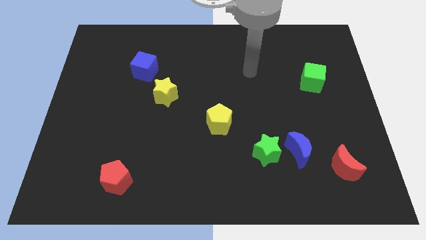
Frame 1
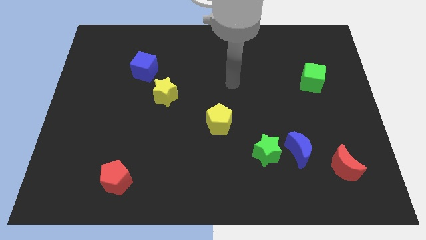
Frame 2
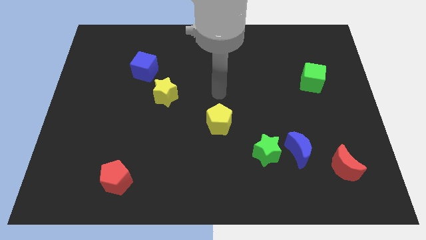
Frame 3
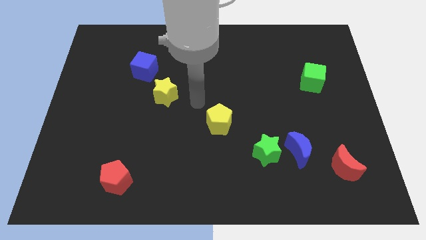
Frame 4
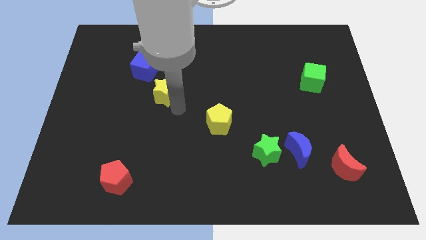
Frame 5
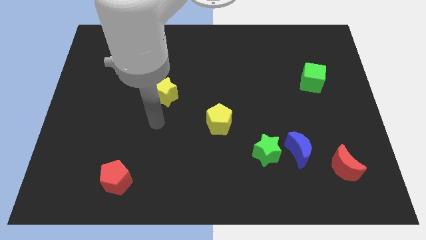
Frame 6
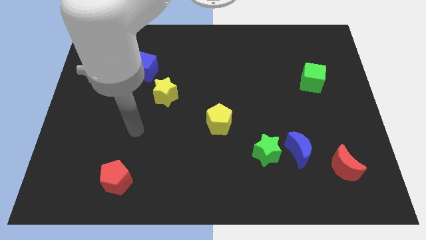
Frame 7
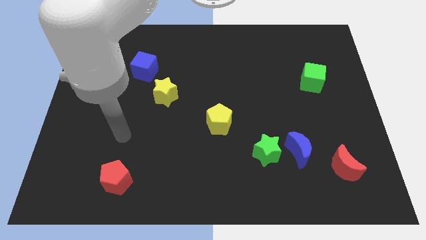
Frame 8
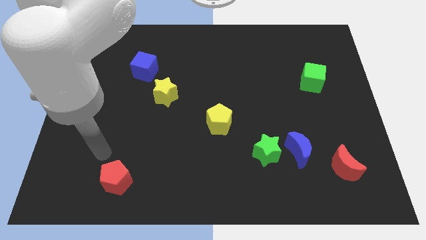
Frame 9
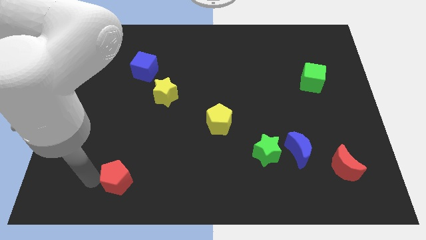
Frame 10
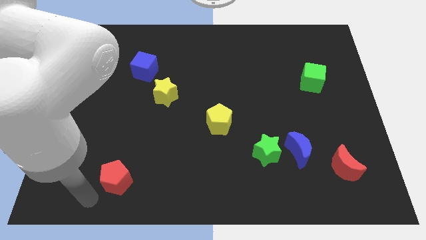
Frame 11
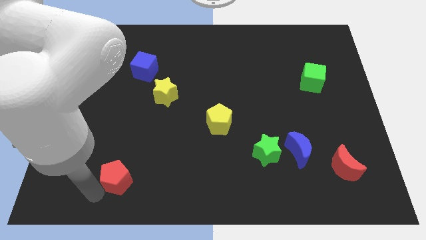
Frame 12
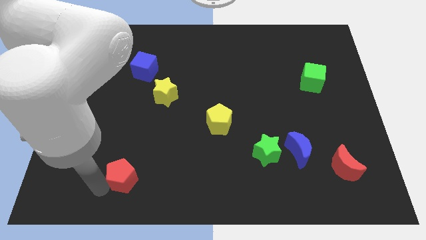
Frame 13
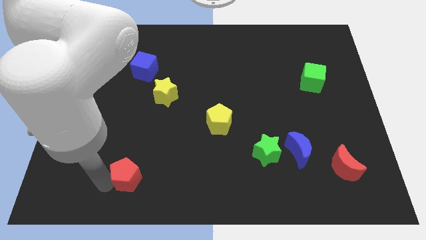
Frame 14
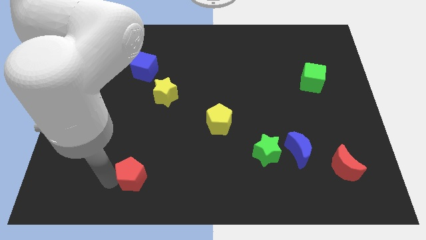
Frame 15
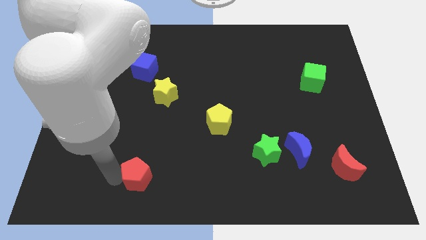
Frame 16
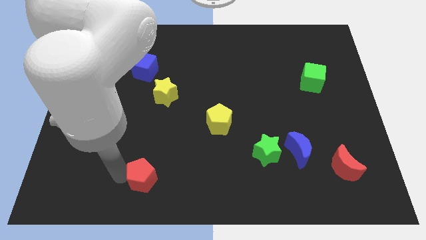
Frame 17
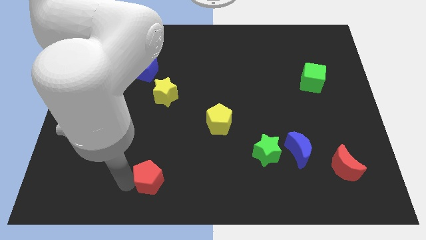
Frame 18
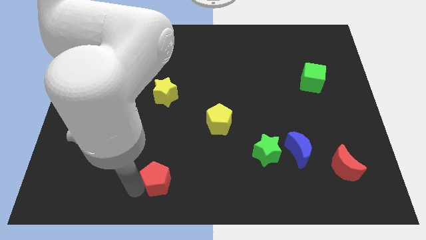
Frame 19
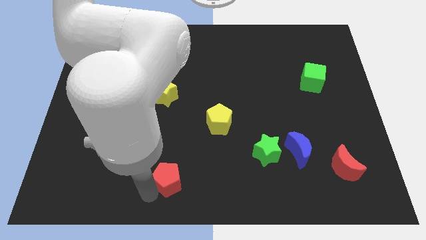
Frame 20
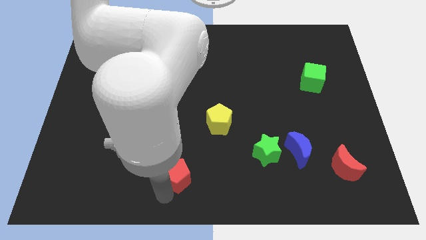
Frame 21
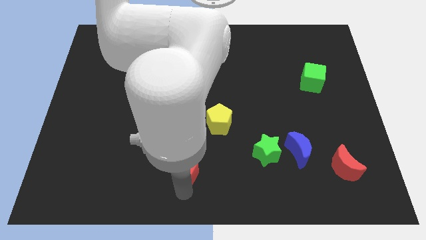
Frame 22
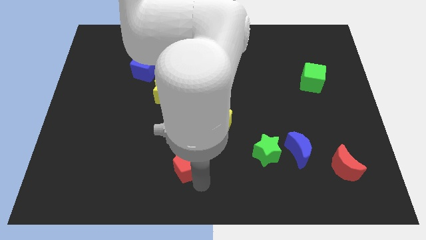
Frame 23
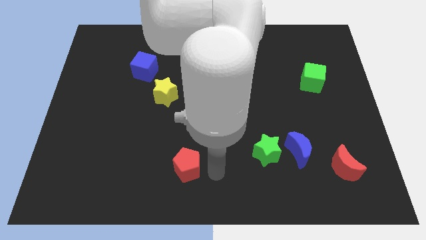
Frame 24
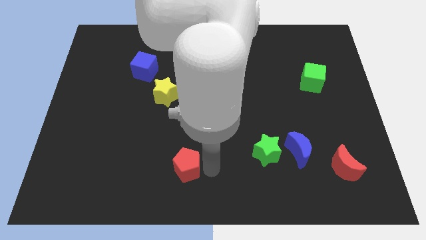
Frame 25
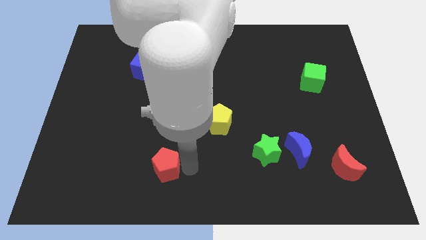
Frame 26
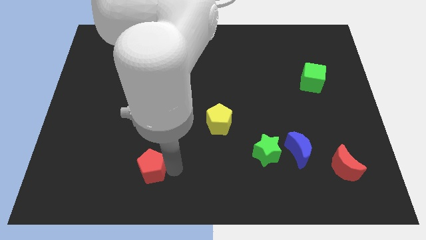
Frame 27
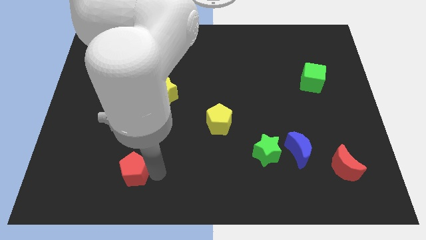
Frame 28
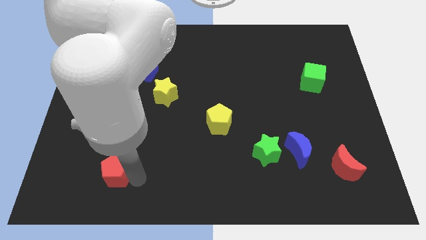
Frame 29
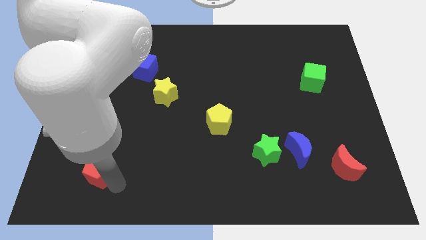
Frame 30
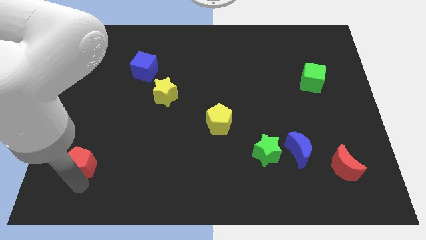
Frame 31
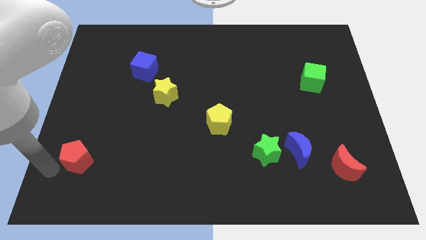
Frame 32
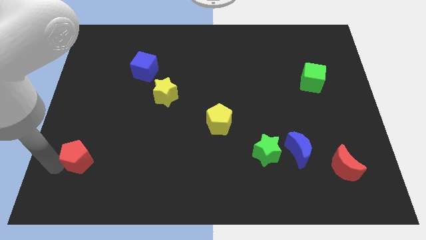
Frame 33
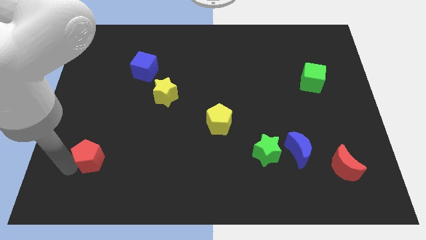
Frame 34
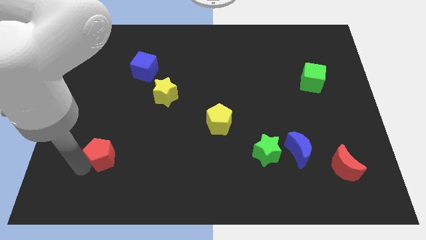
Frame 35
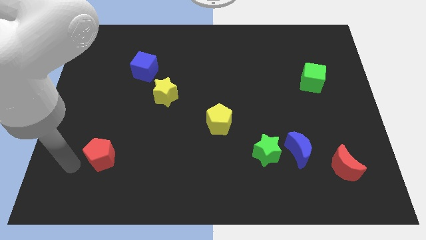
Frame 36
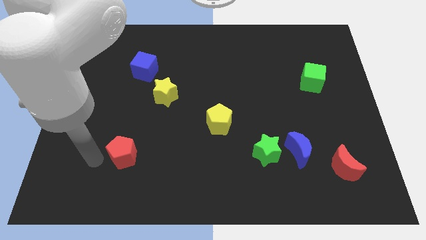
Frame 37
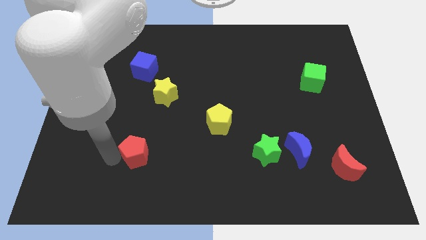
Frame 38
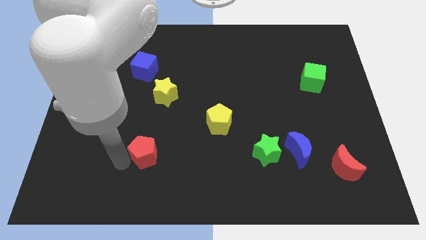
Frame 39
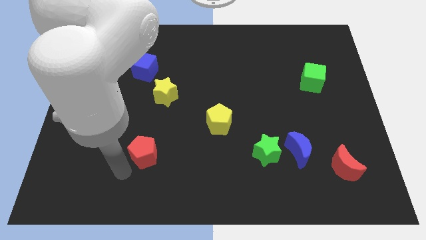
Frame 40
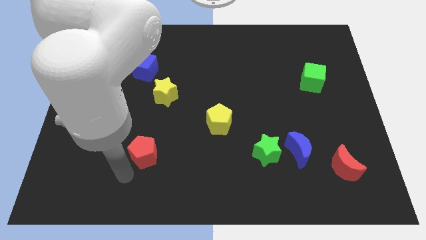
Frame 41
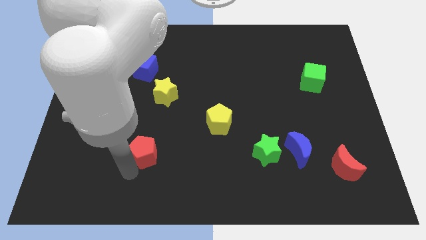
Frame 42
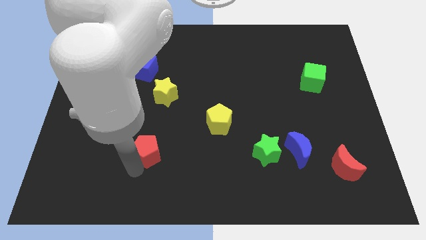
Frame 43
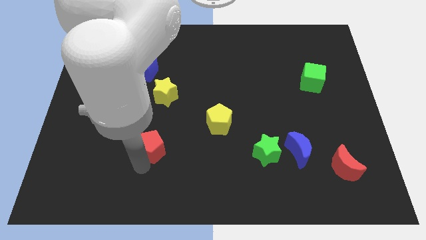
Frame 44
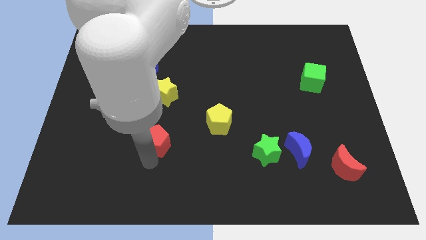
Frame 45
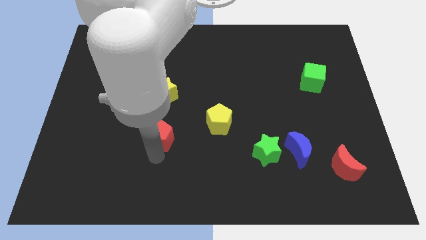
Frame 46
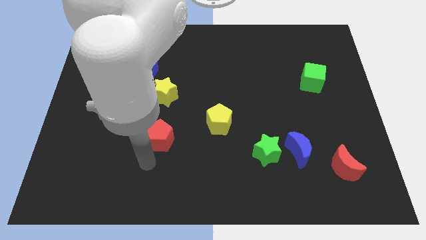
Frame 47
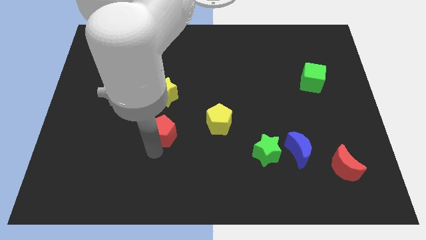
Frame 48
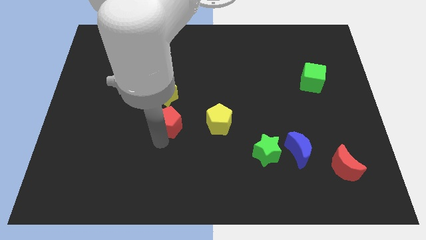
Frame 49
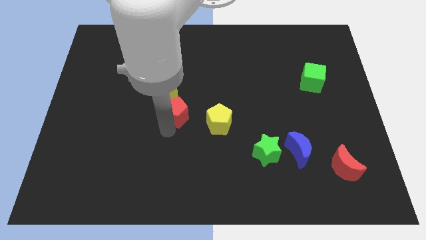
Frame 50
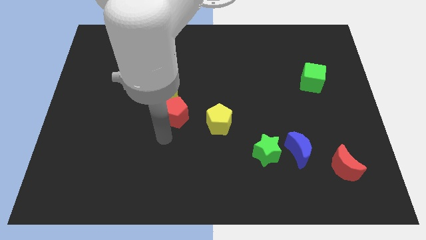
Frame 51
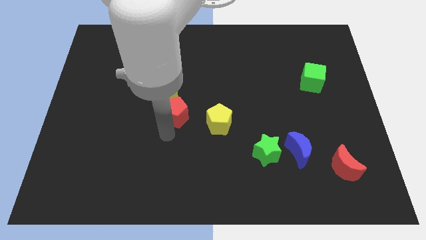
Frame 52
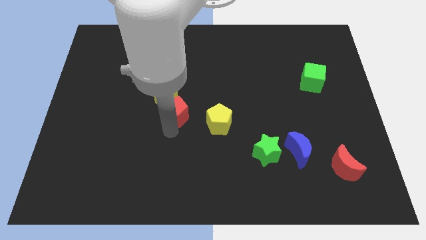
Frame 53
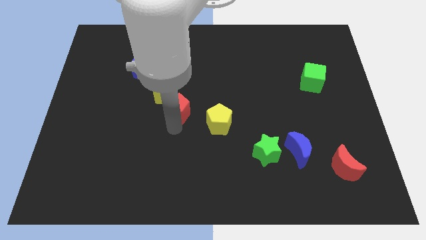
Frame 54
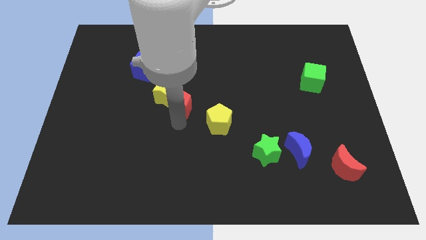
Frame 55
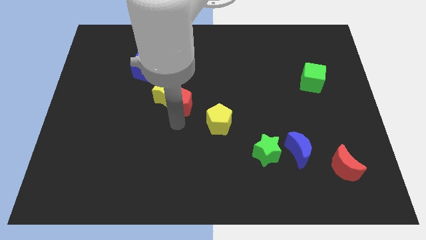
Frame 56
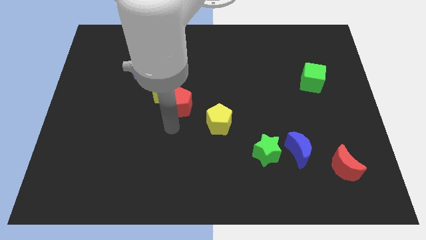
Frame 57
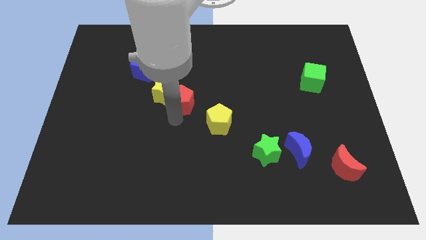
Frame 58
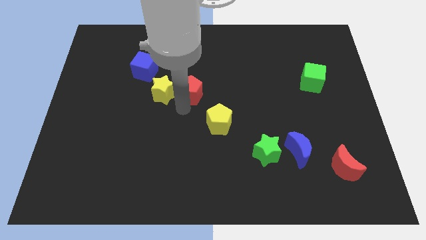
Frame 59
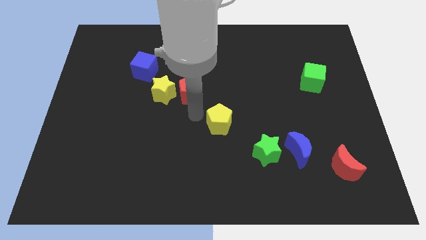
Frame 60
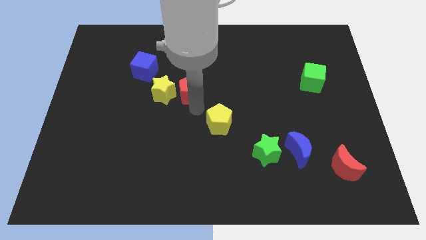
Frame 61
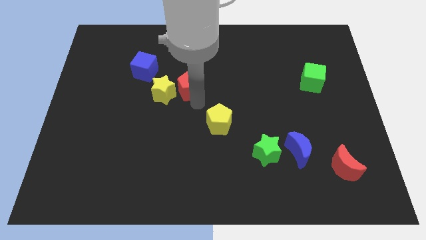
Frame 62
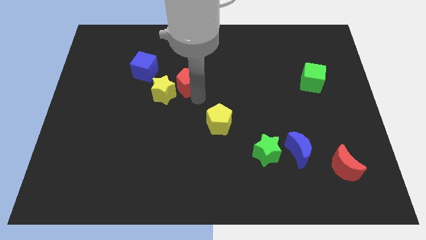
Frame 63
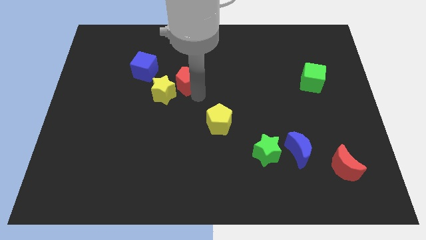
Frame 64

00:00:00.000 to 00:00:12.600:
push the red pentagon right of the blue cube
